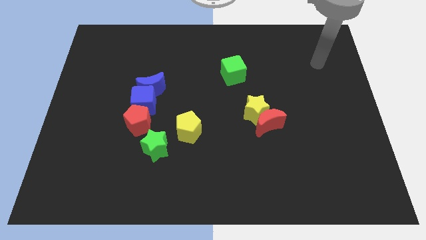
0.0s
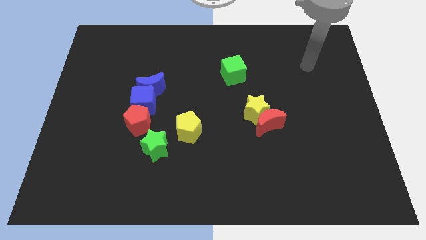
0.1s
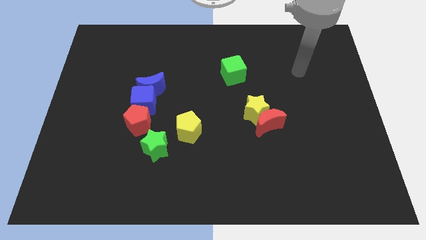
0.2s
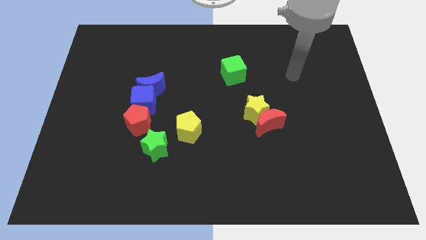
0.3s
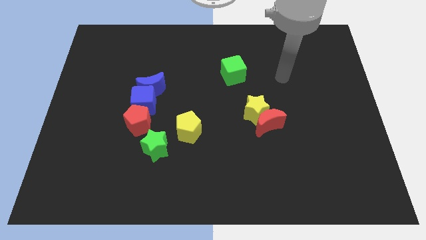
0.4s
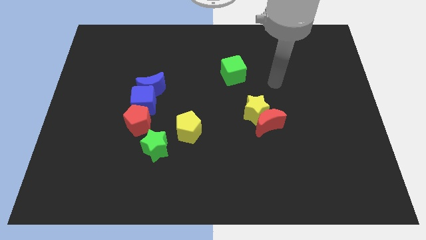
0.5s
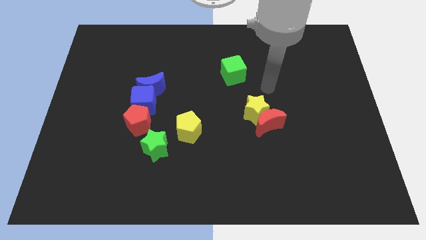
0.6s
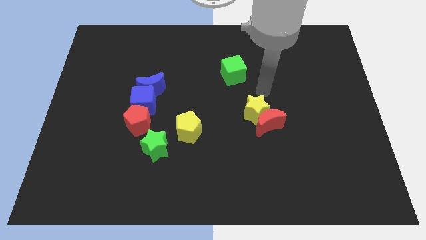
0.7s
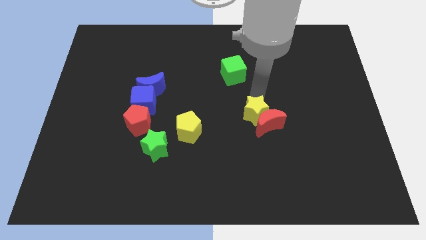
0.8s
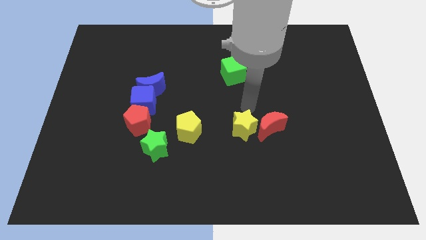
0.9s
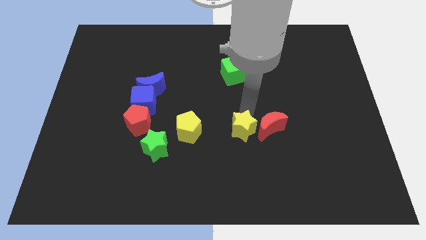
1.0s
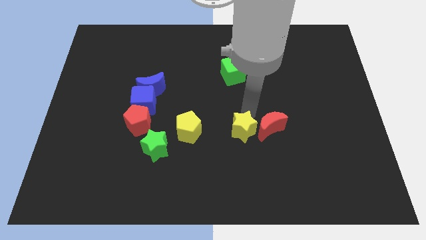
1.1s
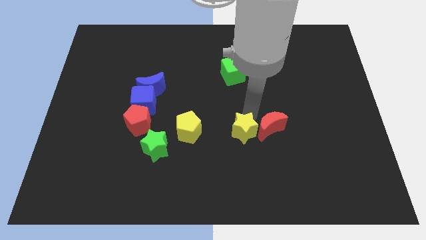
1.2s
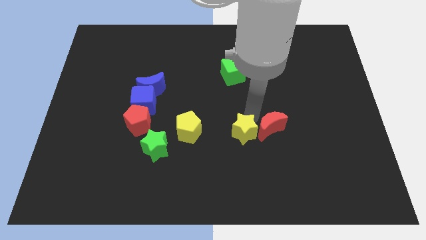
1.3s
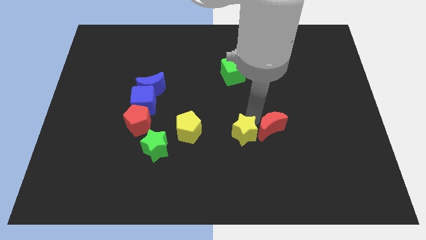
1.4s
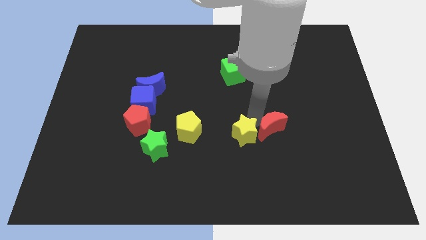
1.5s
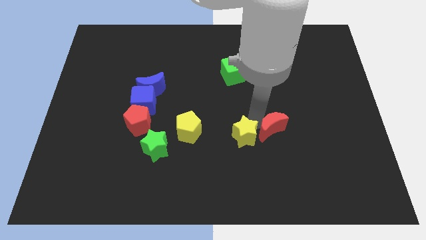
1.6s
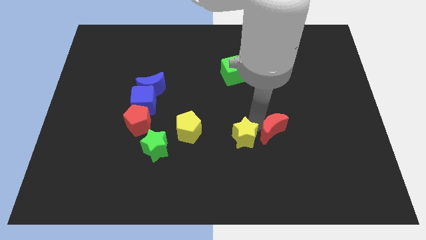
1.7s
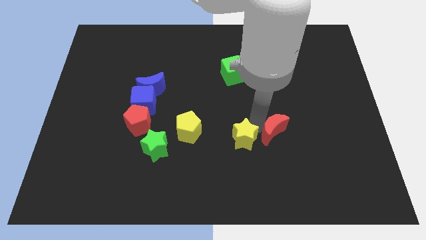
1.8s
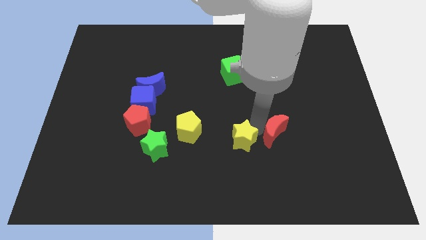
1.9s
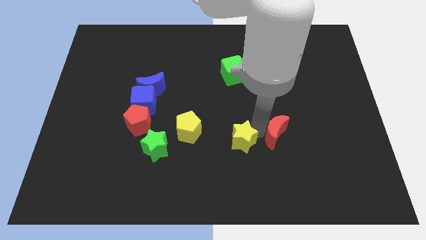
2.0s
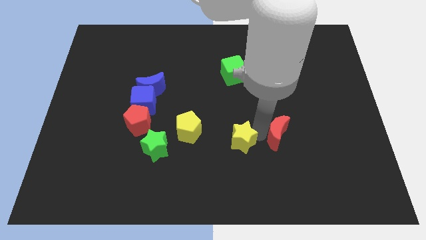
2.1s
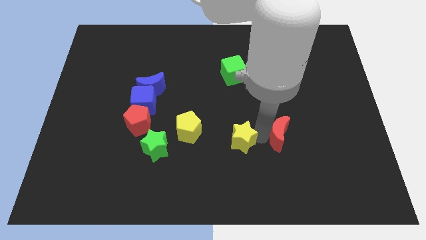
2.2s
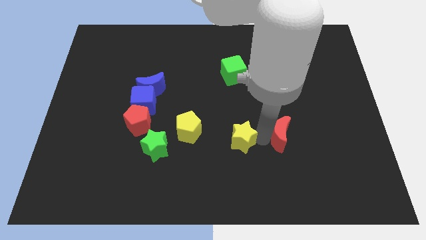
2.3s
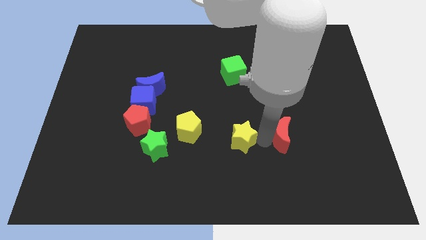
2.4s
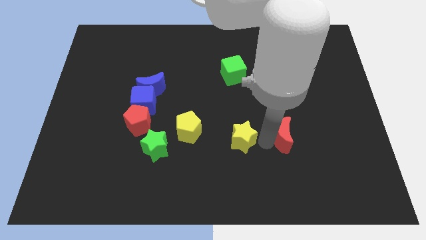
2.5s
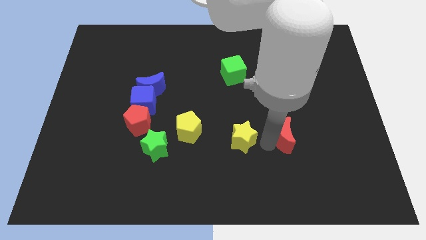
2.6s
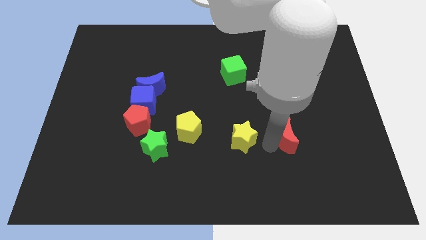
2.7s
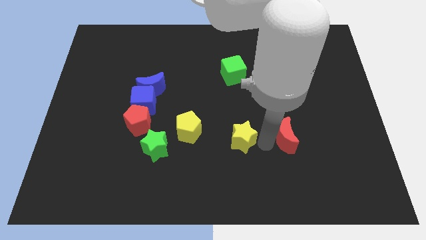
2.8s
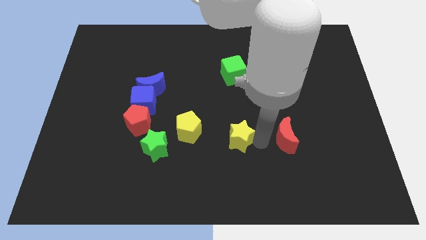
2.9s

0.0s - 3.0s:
move the red moon away from the yellow star

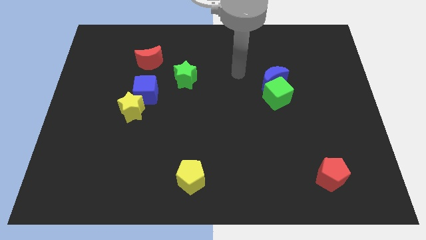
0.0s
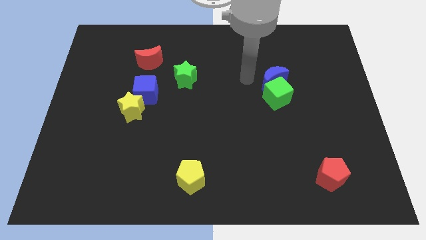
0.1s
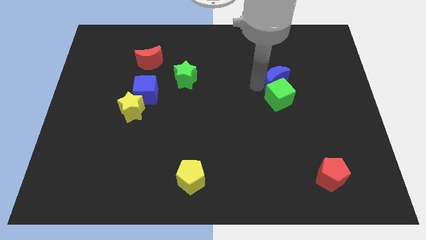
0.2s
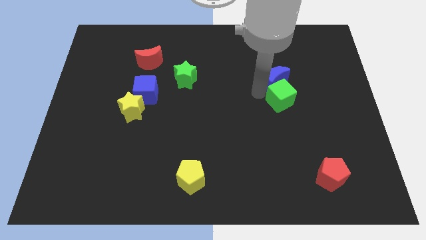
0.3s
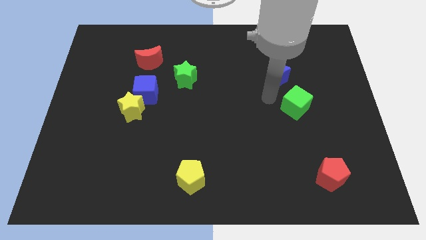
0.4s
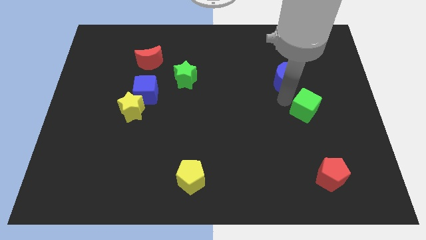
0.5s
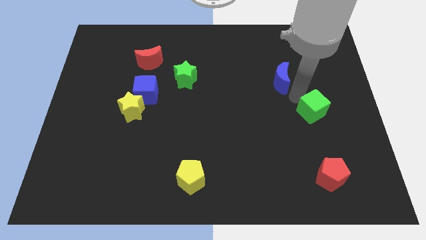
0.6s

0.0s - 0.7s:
separate the blue moon from the green cube

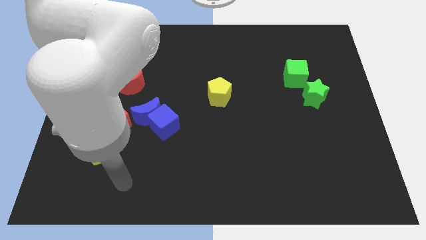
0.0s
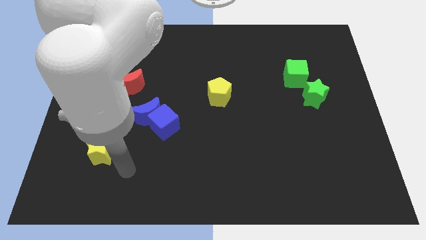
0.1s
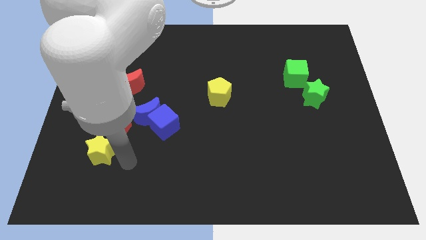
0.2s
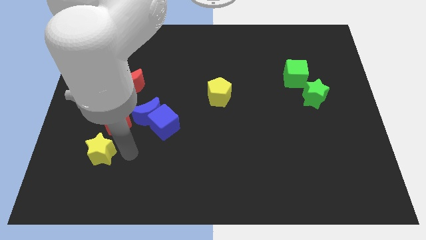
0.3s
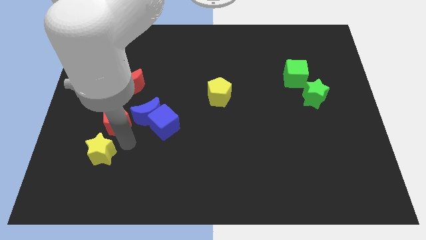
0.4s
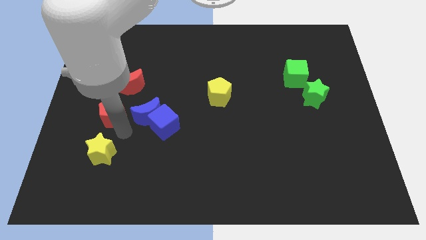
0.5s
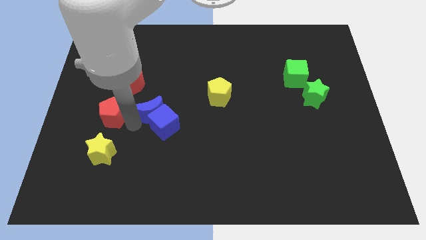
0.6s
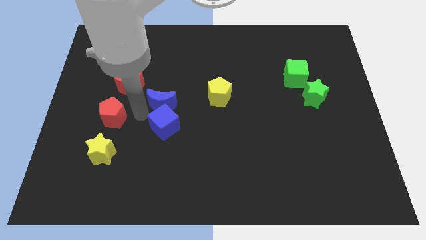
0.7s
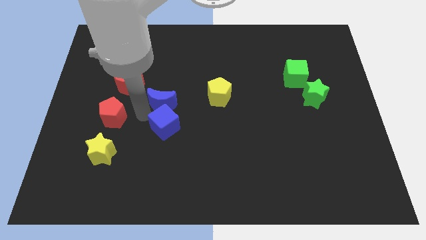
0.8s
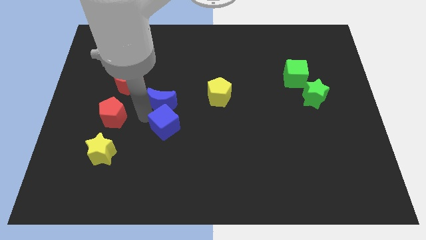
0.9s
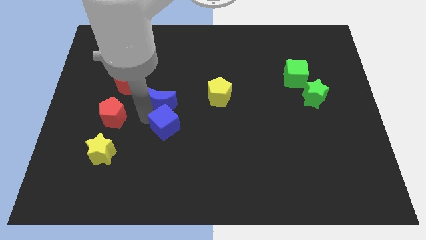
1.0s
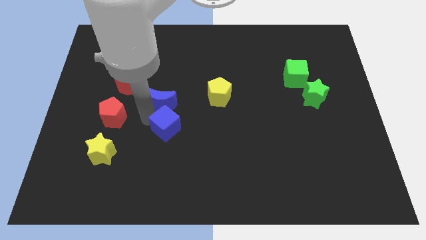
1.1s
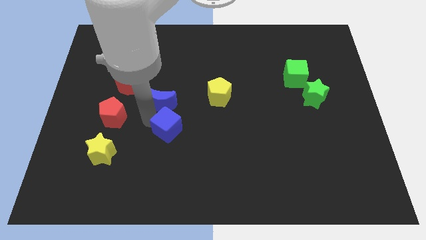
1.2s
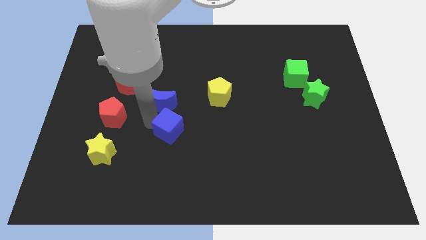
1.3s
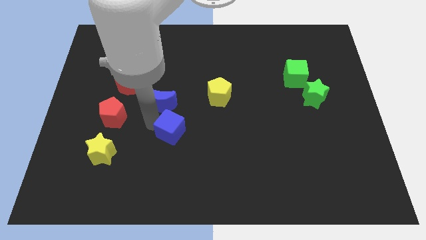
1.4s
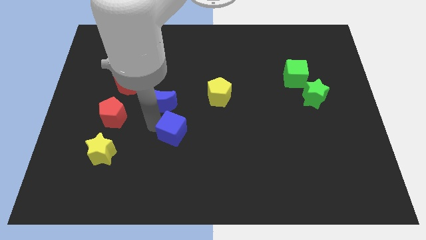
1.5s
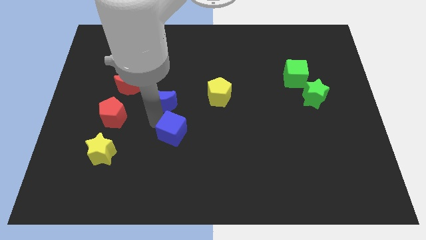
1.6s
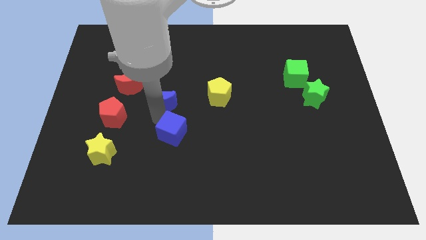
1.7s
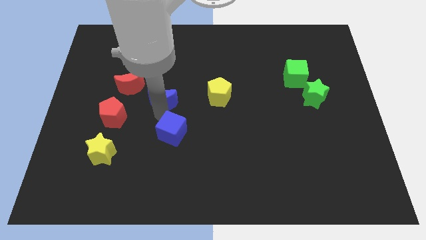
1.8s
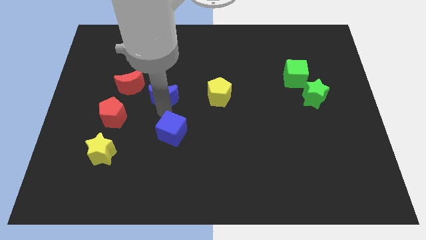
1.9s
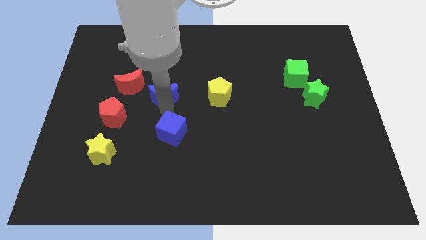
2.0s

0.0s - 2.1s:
pull the blue cube apart from the blue moon

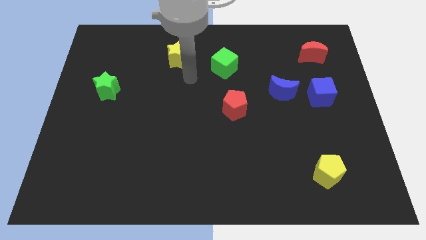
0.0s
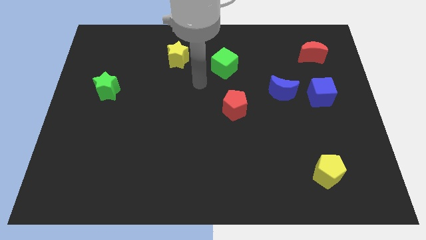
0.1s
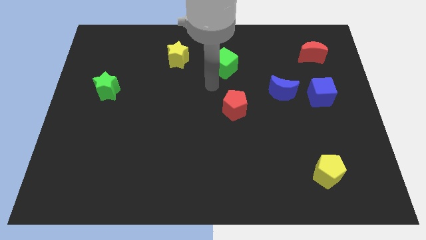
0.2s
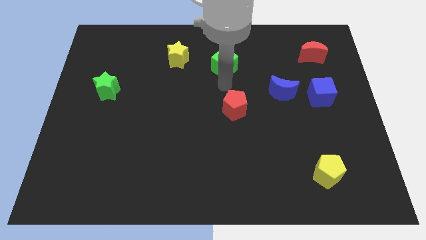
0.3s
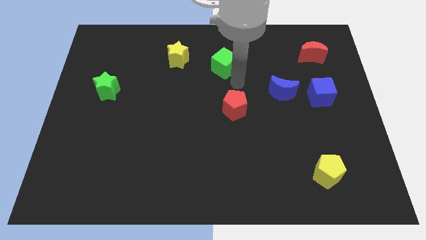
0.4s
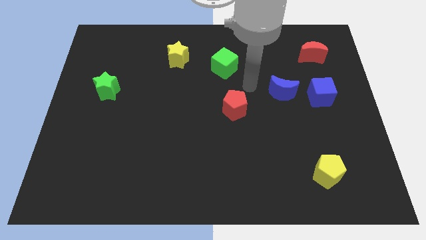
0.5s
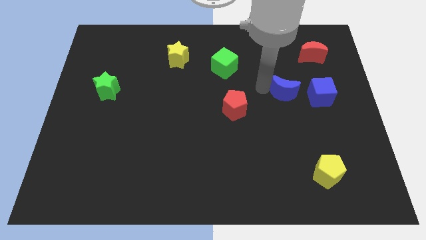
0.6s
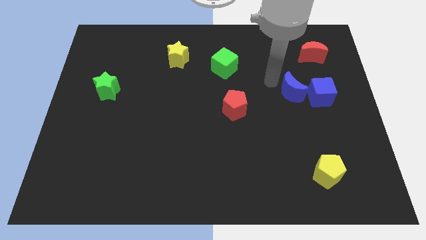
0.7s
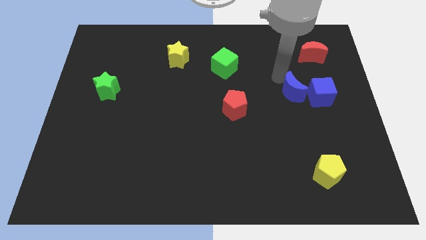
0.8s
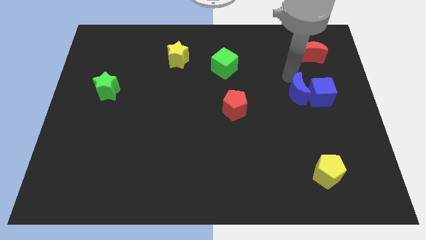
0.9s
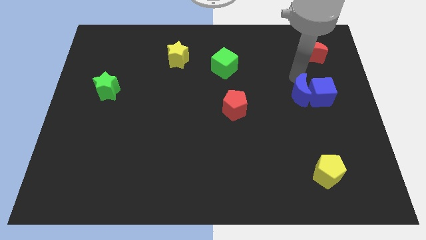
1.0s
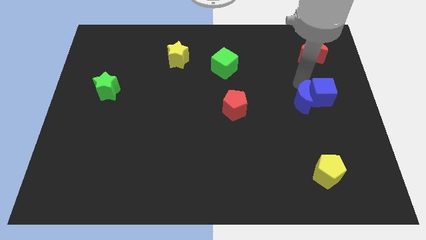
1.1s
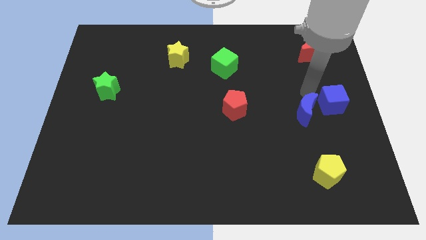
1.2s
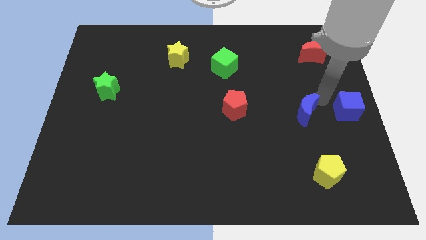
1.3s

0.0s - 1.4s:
separate the blue moon from the blue cube

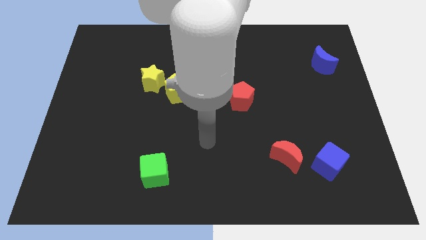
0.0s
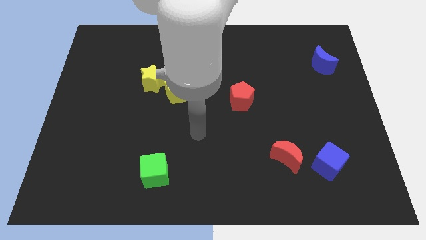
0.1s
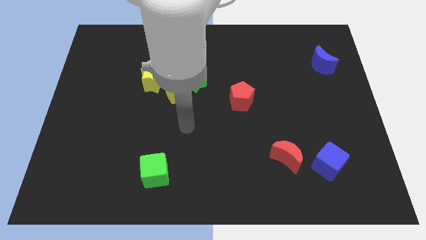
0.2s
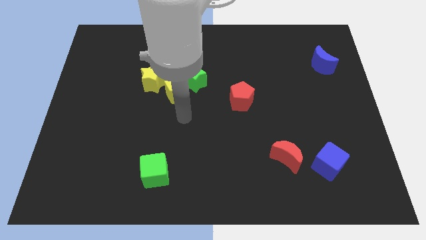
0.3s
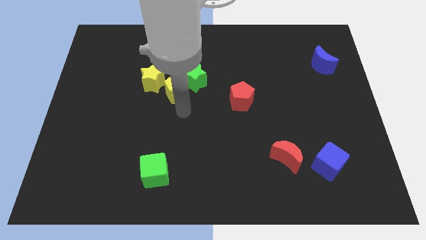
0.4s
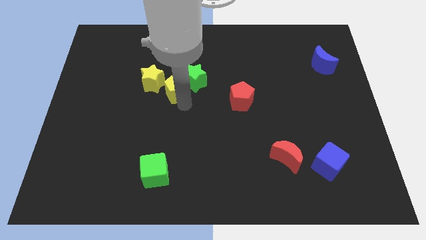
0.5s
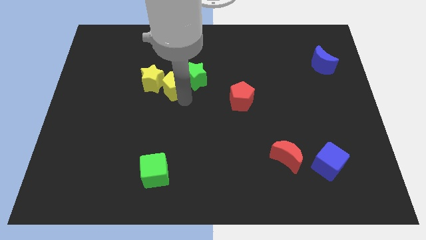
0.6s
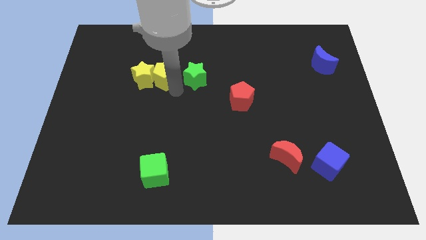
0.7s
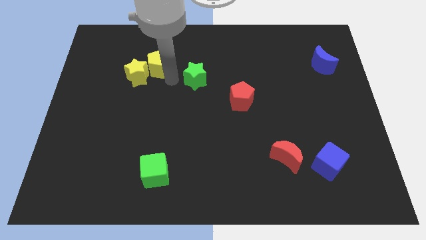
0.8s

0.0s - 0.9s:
separate the green star from the yellow pentagon

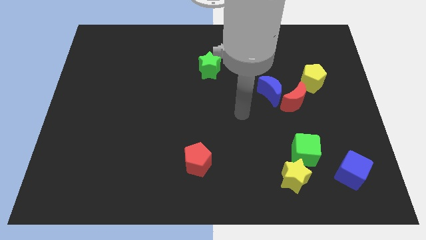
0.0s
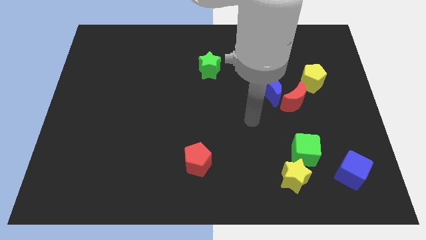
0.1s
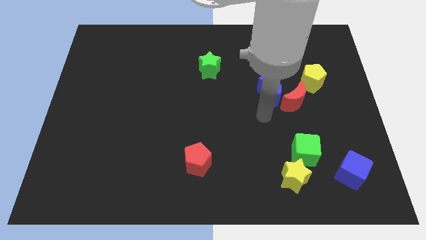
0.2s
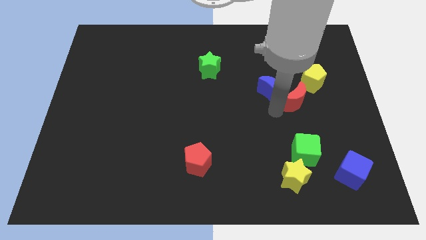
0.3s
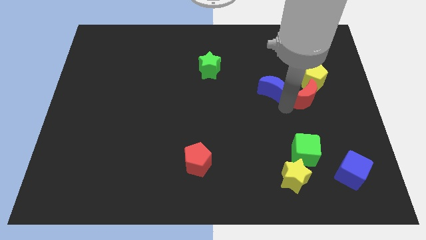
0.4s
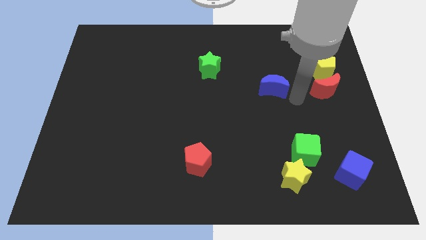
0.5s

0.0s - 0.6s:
move the blue moon away from the red moon

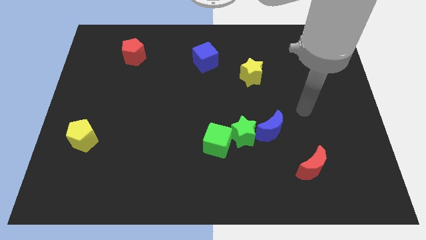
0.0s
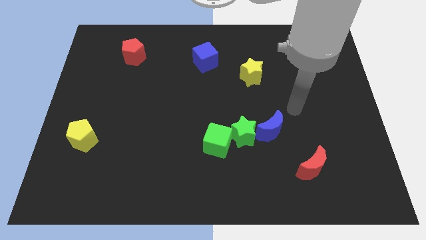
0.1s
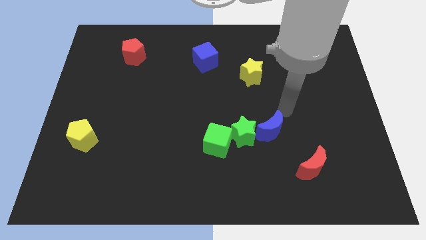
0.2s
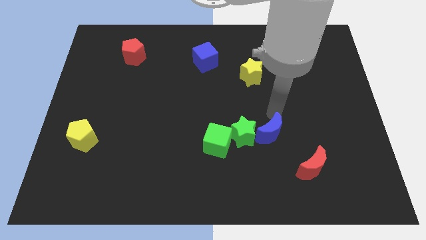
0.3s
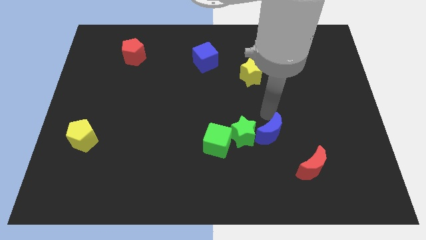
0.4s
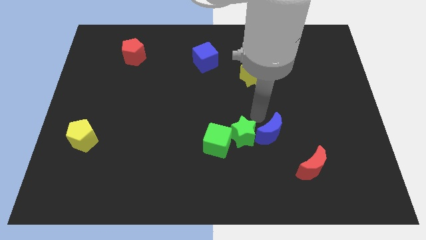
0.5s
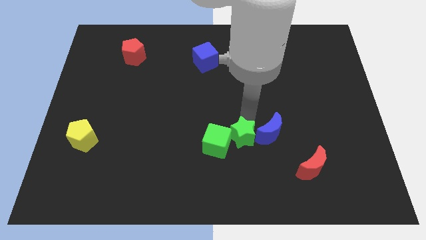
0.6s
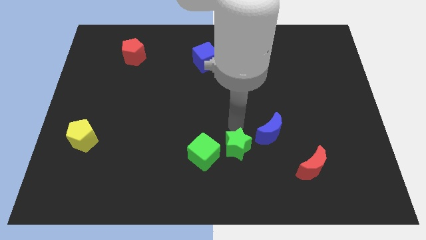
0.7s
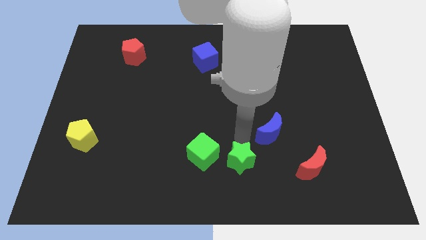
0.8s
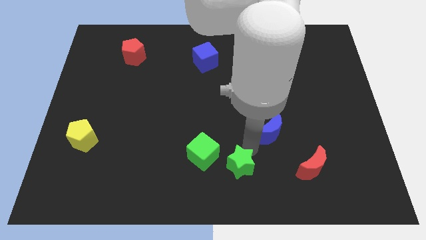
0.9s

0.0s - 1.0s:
pull the blue moon apart from the green star
